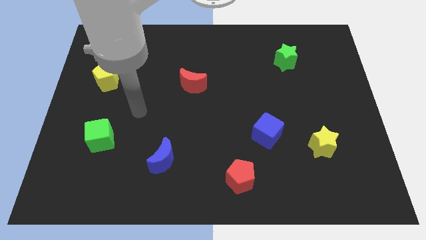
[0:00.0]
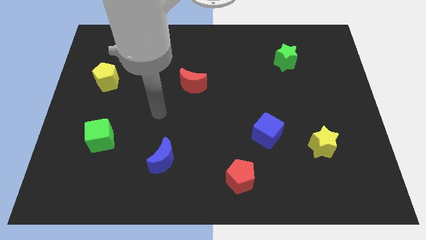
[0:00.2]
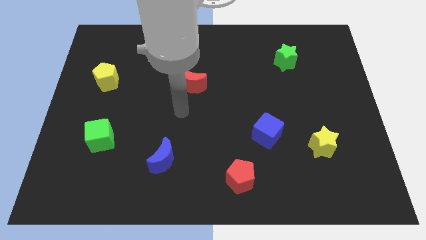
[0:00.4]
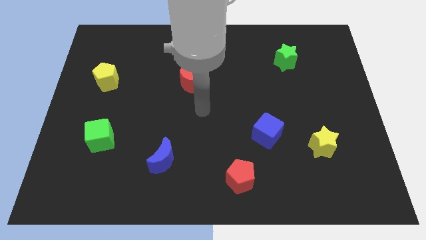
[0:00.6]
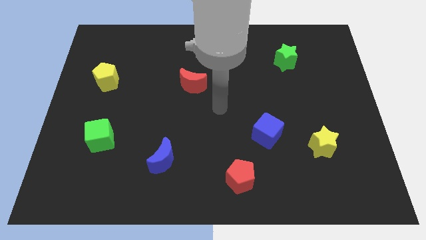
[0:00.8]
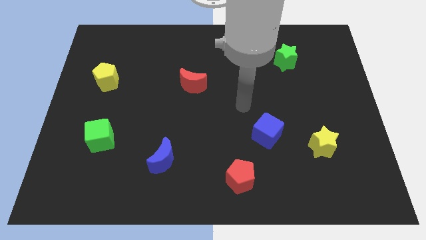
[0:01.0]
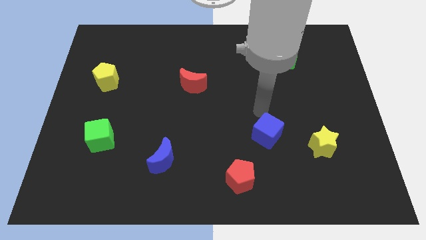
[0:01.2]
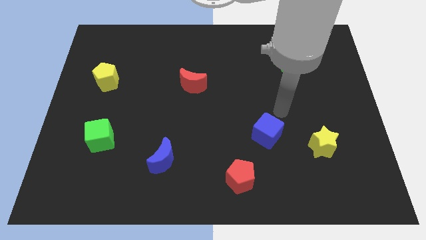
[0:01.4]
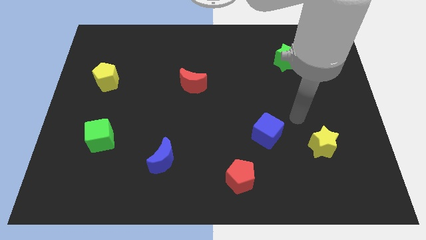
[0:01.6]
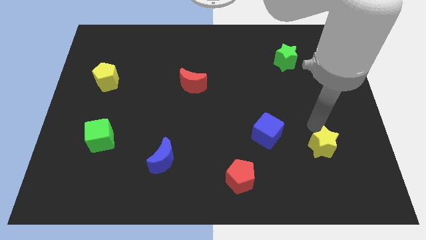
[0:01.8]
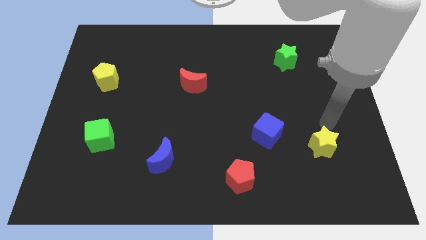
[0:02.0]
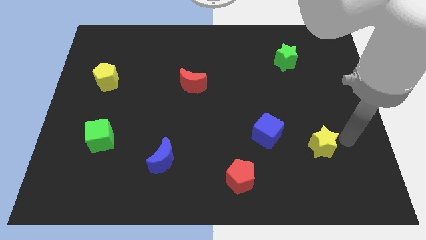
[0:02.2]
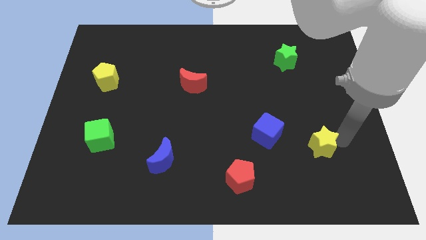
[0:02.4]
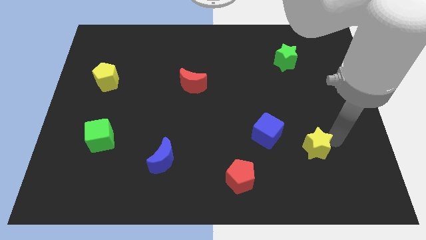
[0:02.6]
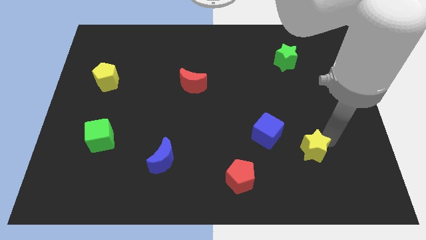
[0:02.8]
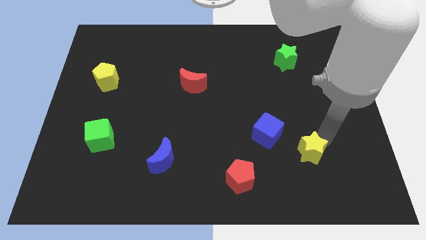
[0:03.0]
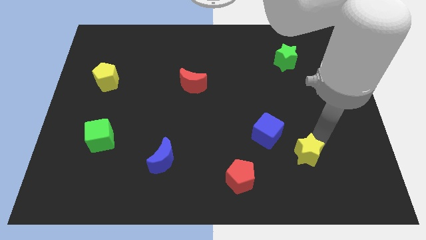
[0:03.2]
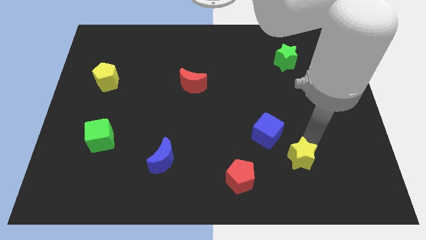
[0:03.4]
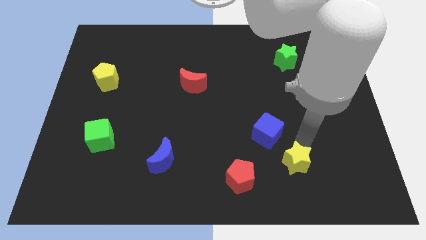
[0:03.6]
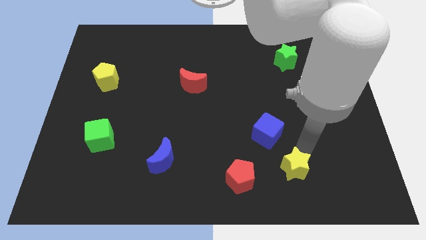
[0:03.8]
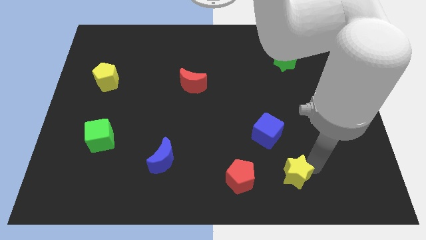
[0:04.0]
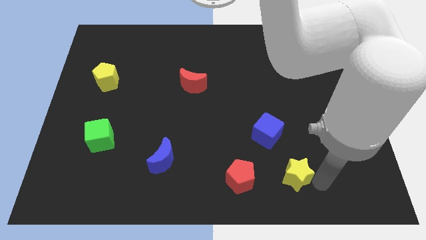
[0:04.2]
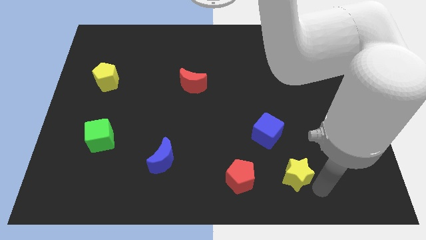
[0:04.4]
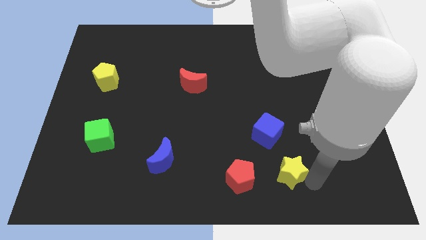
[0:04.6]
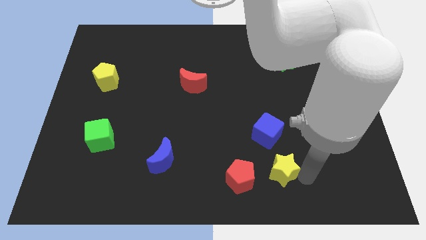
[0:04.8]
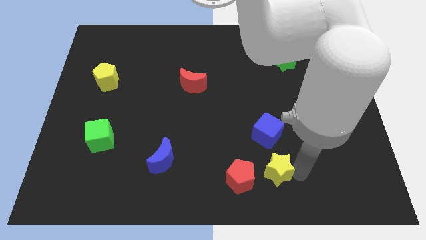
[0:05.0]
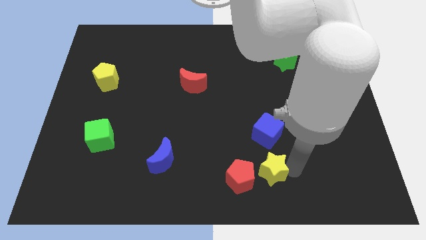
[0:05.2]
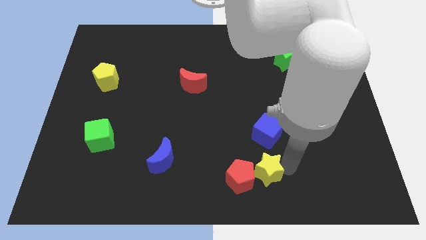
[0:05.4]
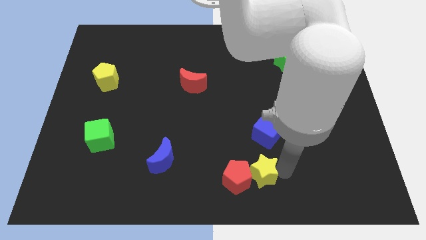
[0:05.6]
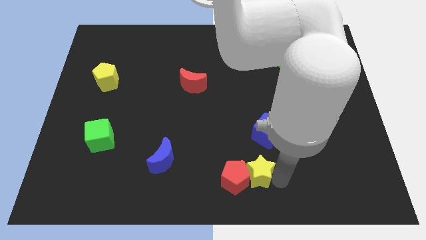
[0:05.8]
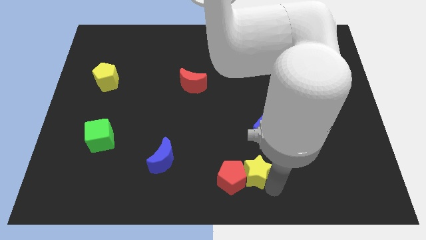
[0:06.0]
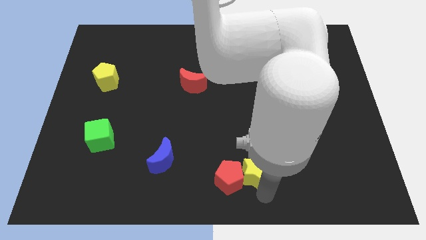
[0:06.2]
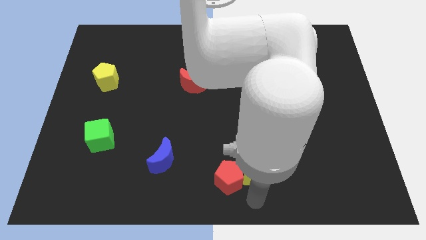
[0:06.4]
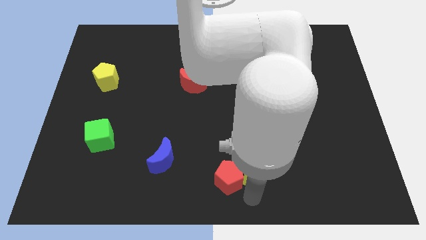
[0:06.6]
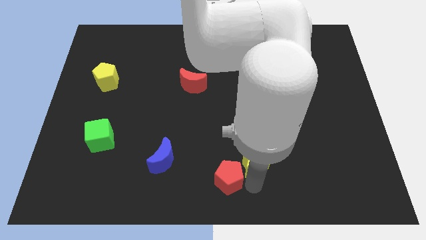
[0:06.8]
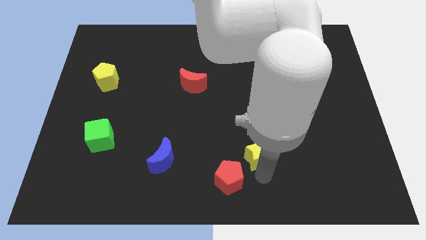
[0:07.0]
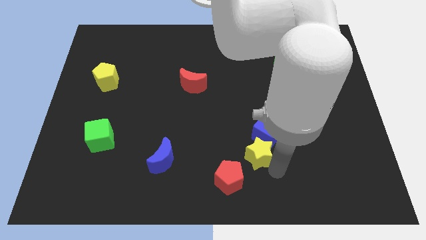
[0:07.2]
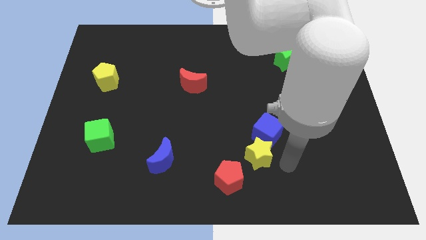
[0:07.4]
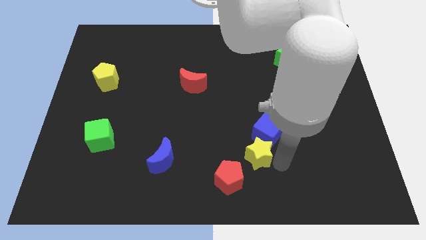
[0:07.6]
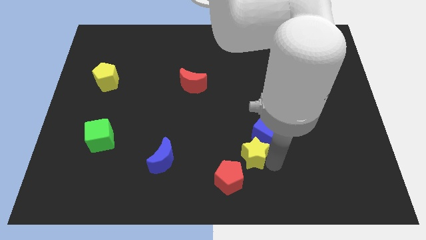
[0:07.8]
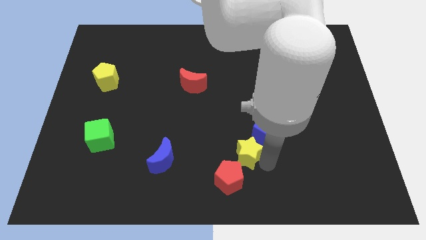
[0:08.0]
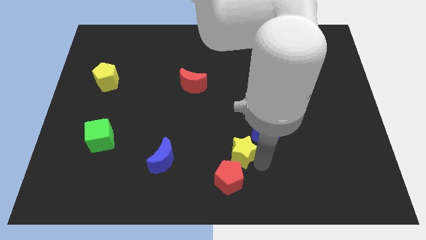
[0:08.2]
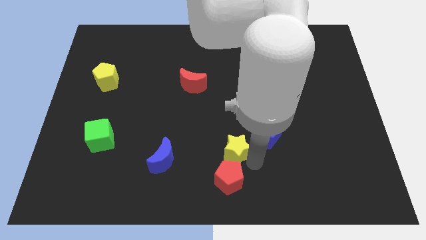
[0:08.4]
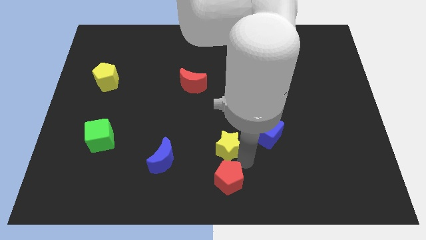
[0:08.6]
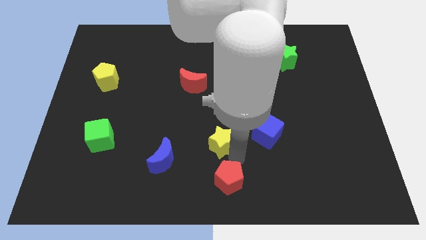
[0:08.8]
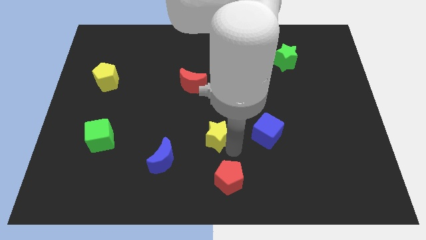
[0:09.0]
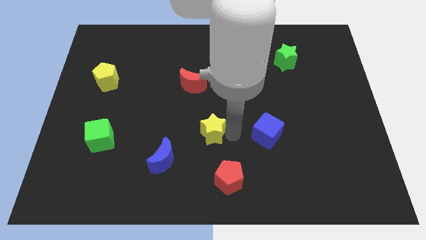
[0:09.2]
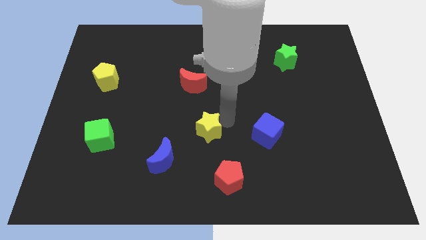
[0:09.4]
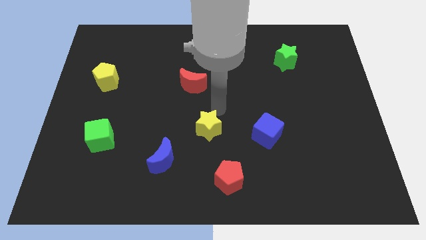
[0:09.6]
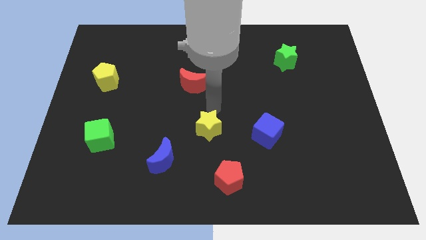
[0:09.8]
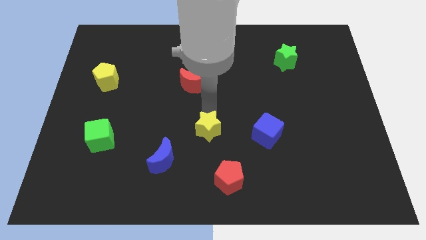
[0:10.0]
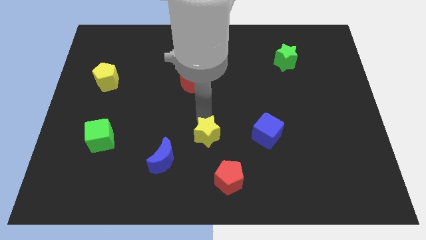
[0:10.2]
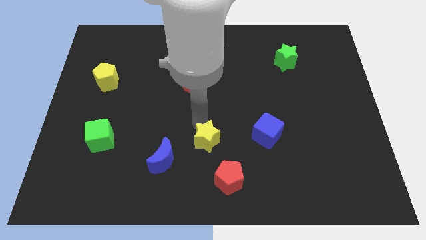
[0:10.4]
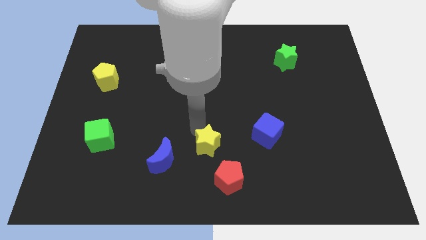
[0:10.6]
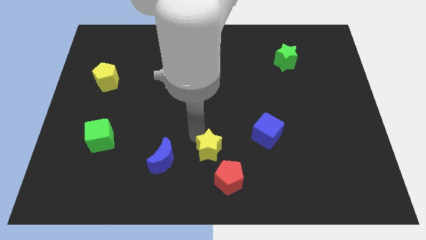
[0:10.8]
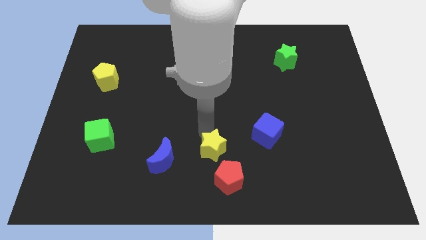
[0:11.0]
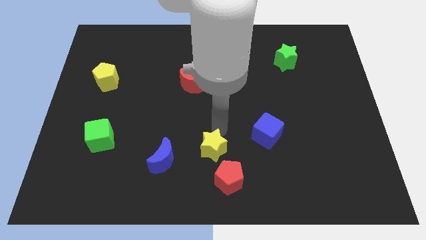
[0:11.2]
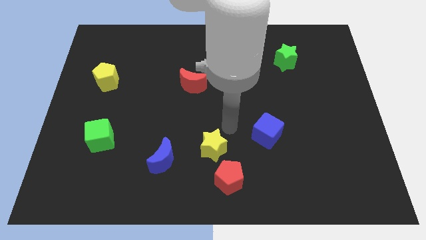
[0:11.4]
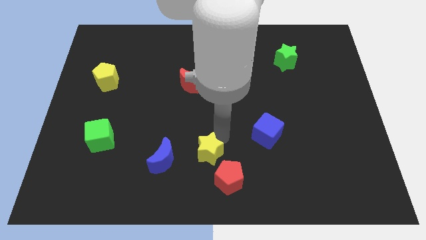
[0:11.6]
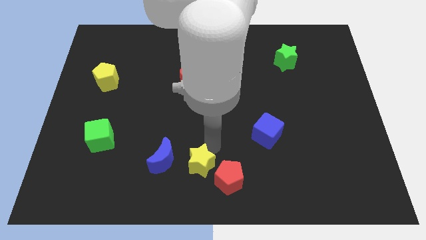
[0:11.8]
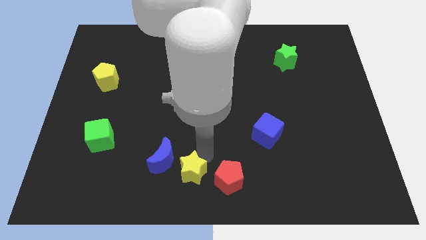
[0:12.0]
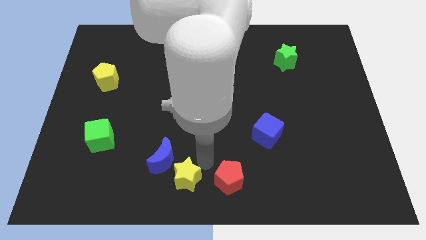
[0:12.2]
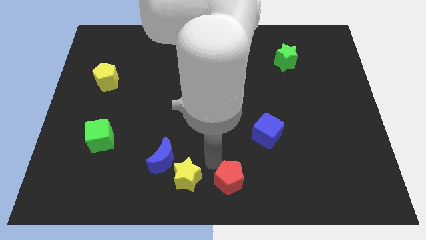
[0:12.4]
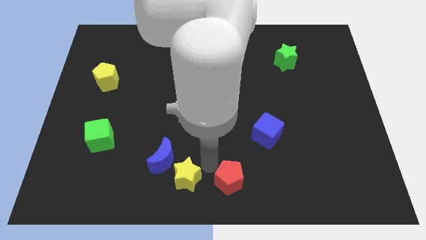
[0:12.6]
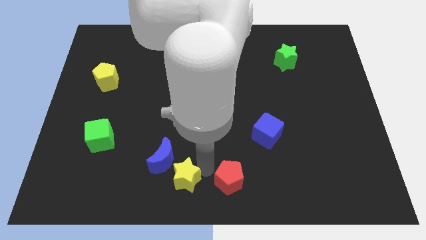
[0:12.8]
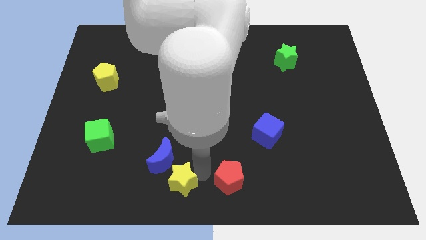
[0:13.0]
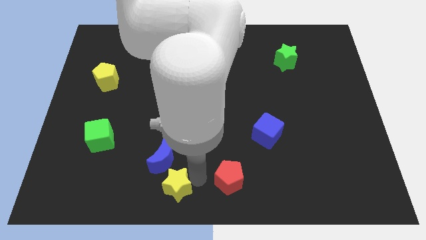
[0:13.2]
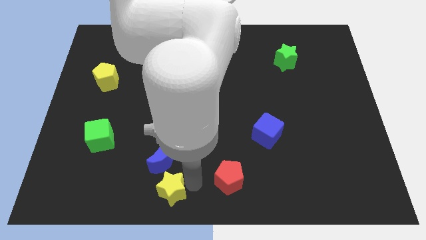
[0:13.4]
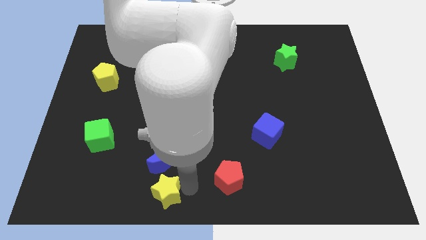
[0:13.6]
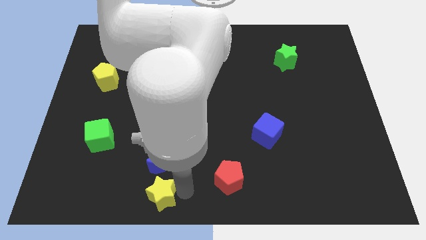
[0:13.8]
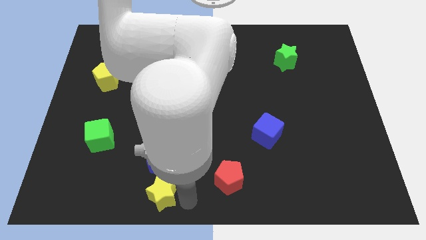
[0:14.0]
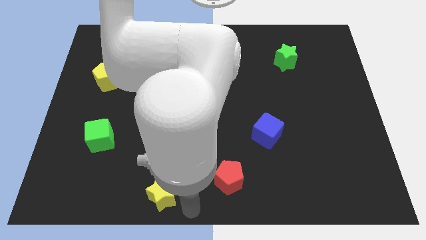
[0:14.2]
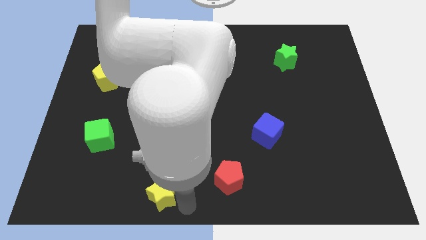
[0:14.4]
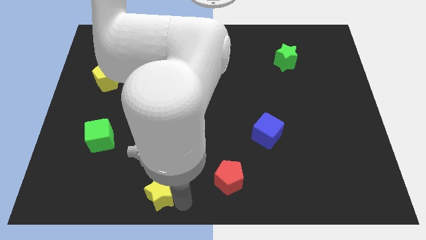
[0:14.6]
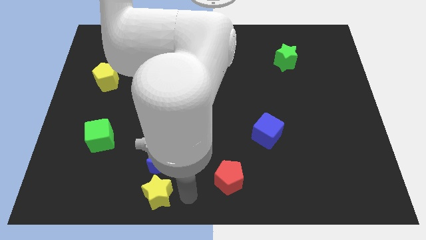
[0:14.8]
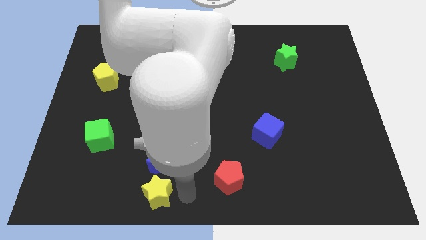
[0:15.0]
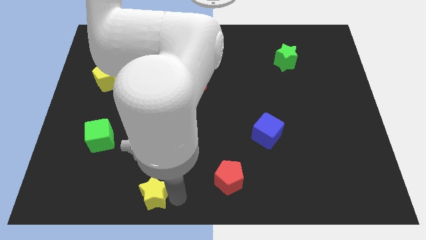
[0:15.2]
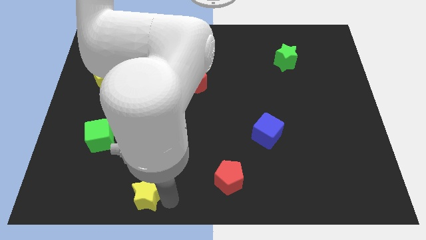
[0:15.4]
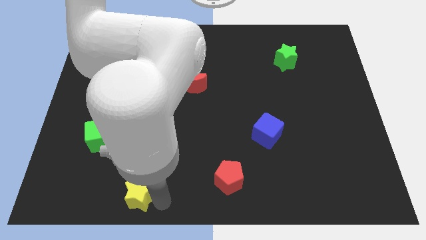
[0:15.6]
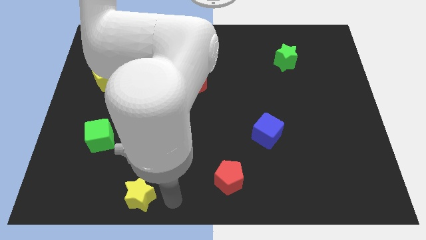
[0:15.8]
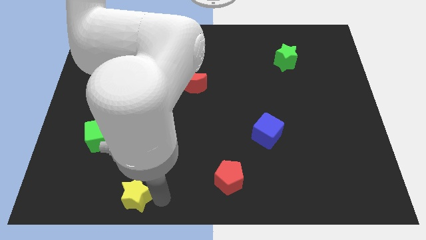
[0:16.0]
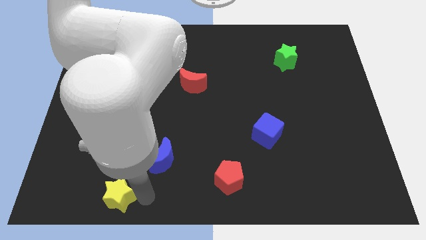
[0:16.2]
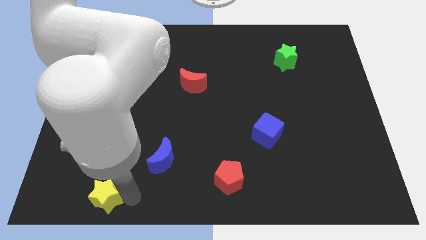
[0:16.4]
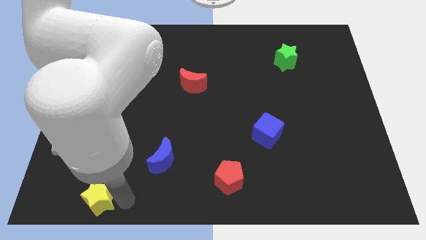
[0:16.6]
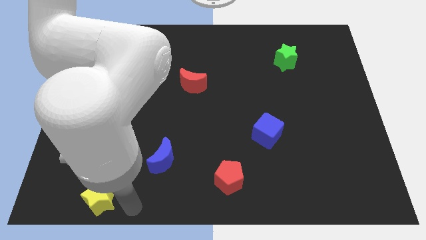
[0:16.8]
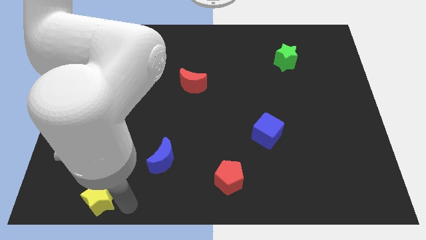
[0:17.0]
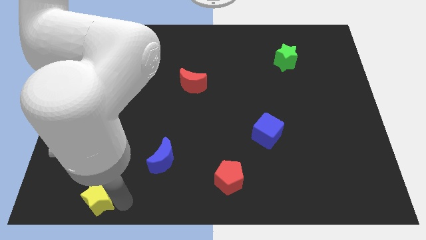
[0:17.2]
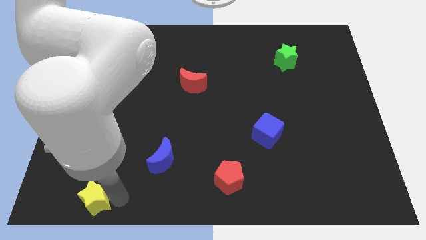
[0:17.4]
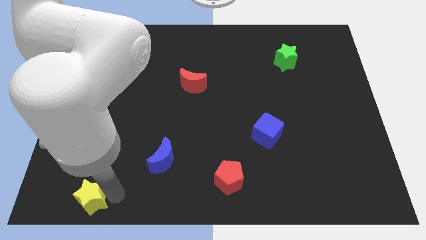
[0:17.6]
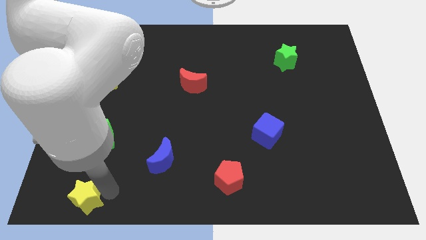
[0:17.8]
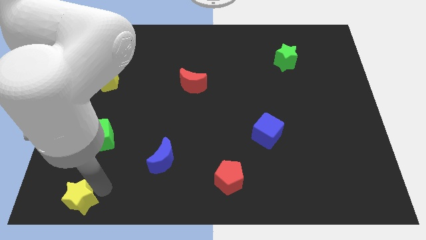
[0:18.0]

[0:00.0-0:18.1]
push the yellow star to the bottom left of the board
